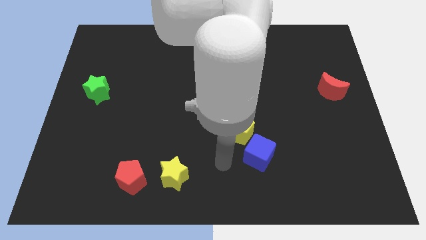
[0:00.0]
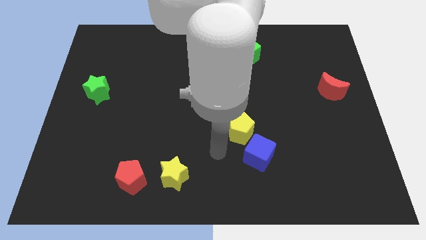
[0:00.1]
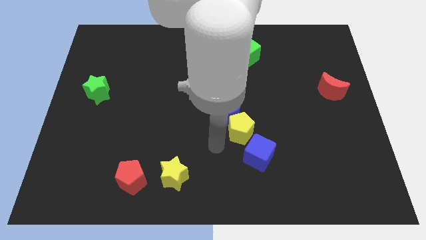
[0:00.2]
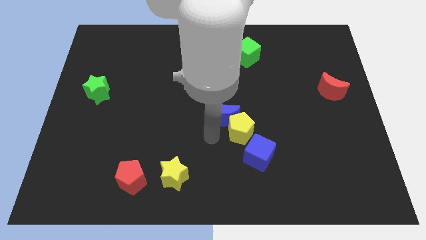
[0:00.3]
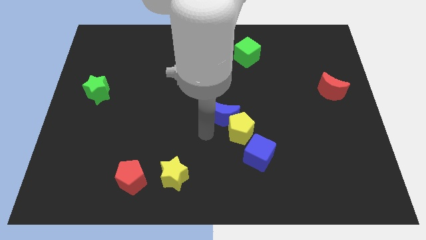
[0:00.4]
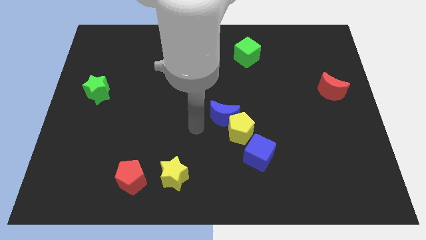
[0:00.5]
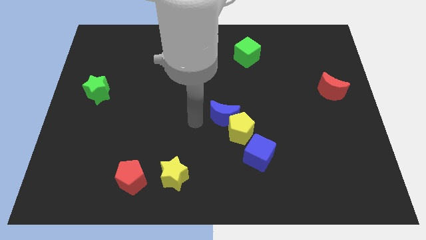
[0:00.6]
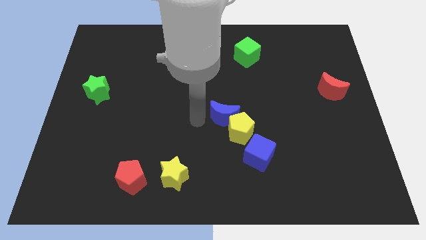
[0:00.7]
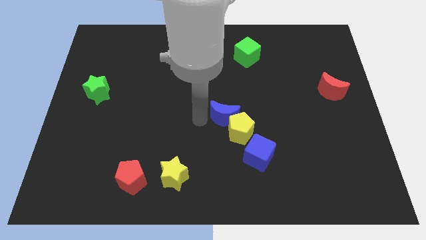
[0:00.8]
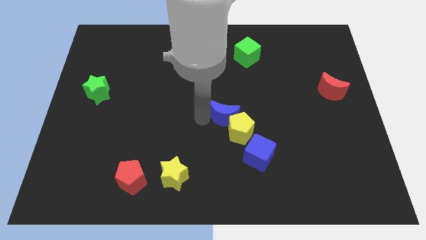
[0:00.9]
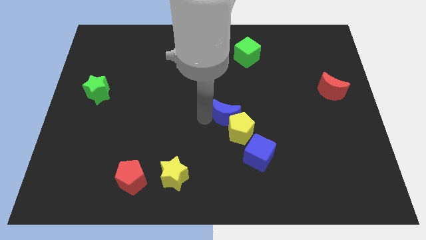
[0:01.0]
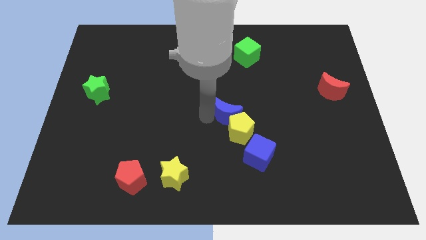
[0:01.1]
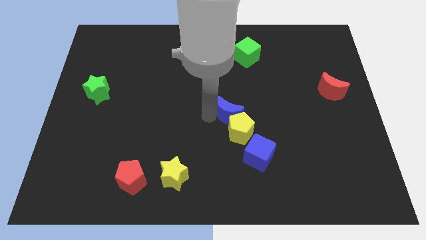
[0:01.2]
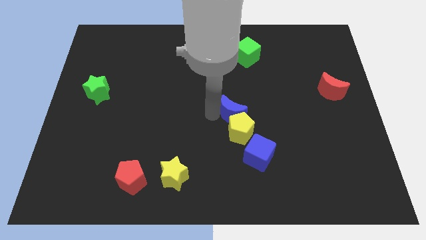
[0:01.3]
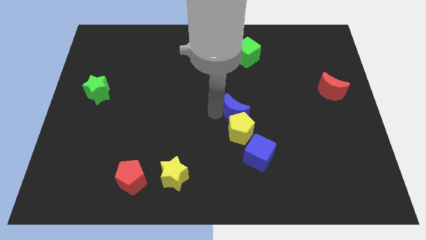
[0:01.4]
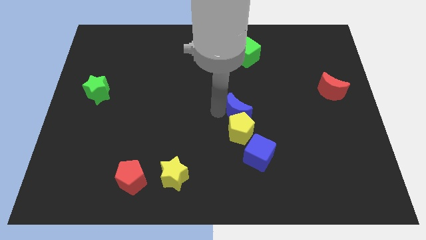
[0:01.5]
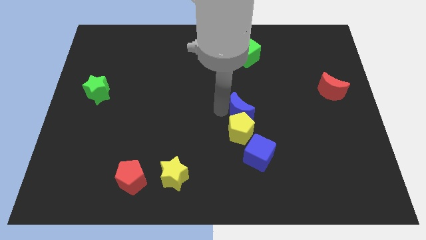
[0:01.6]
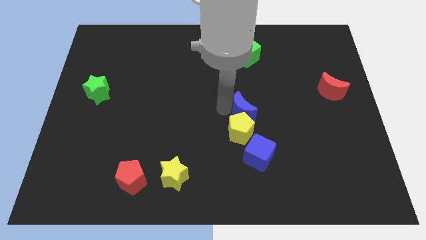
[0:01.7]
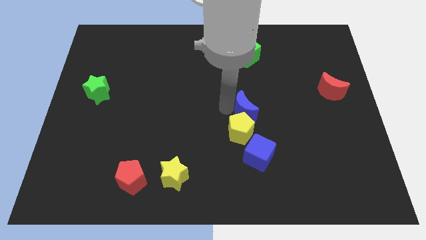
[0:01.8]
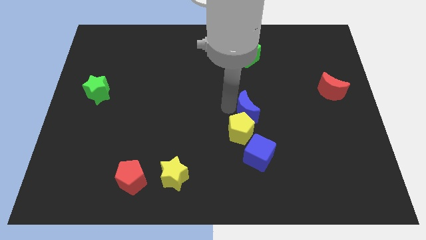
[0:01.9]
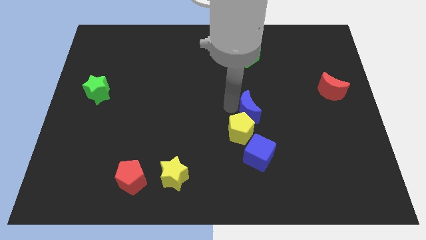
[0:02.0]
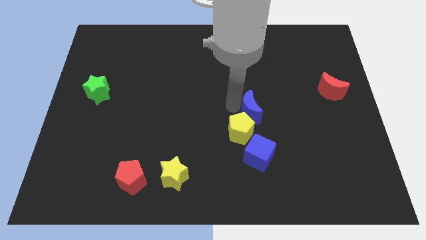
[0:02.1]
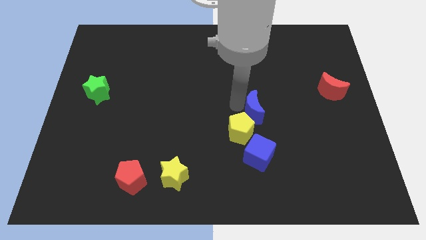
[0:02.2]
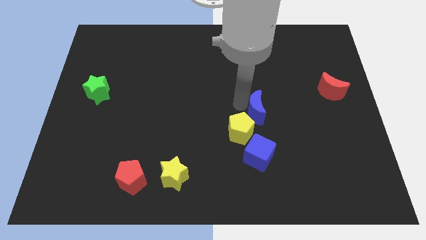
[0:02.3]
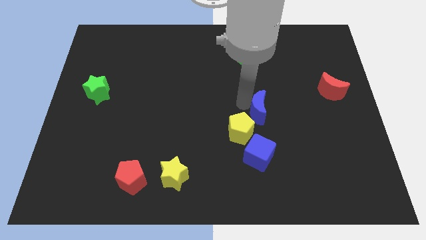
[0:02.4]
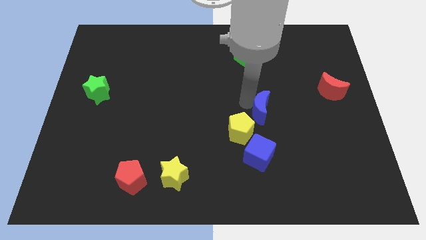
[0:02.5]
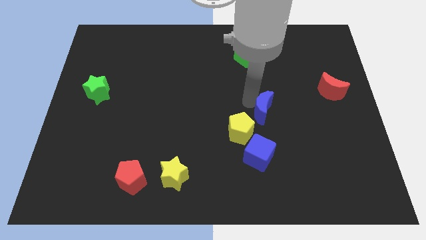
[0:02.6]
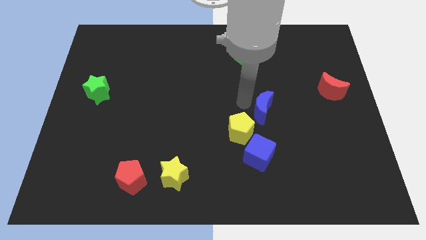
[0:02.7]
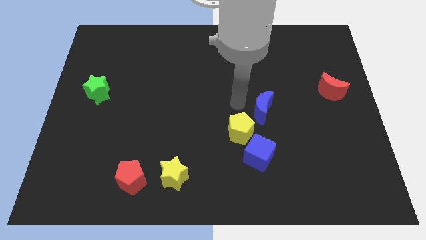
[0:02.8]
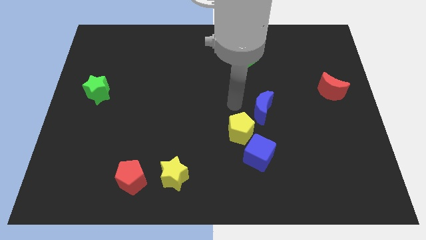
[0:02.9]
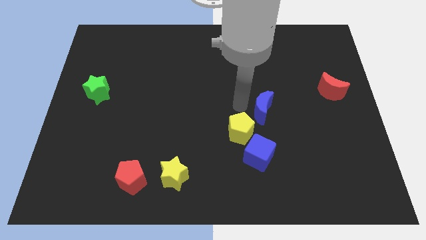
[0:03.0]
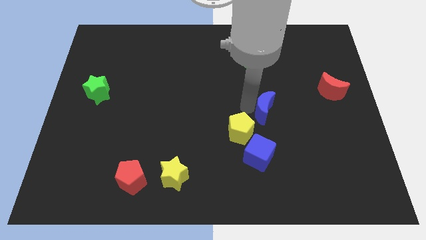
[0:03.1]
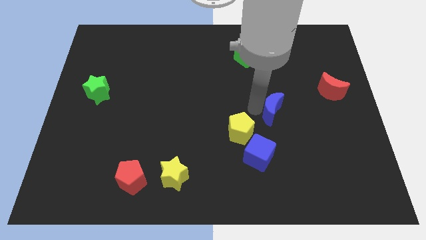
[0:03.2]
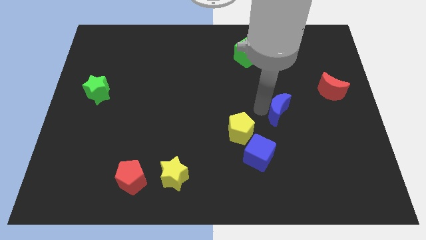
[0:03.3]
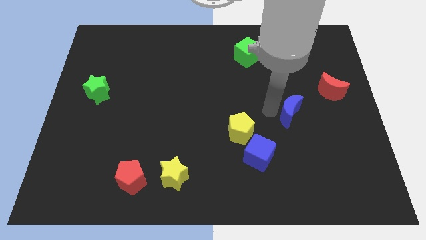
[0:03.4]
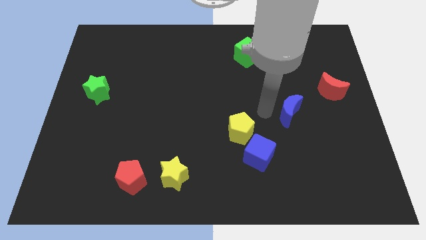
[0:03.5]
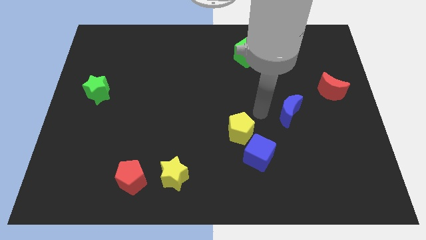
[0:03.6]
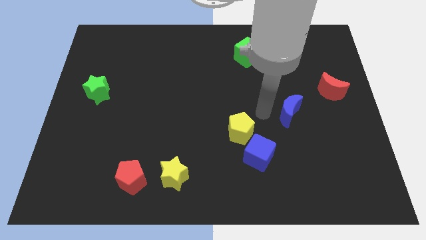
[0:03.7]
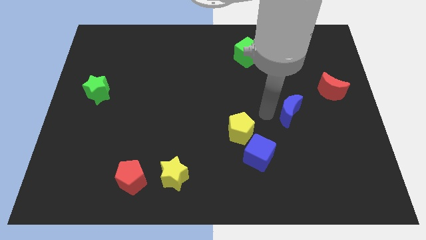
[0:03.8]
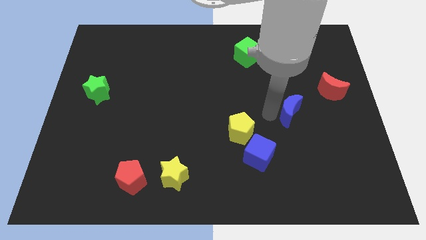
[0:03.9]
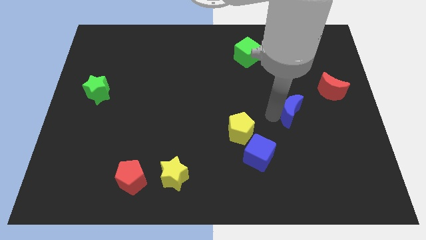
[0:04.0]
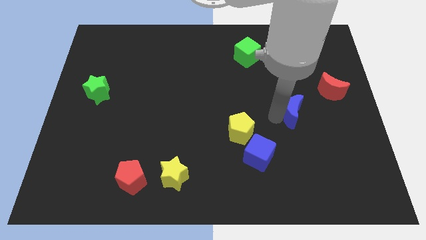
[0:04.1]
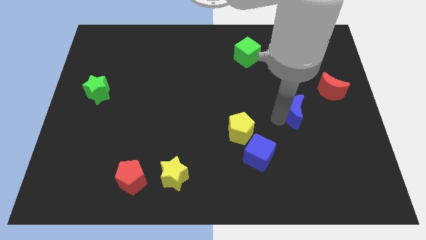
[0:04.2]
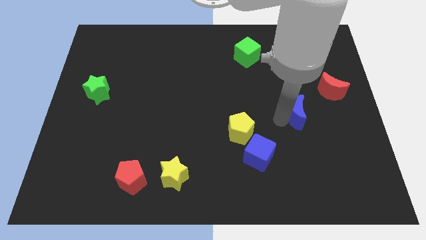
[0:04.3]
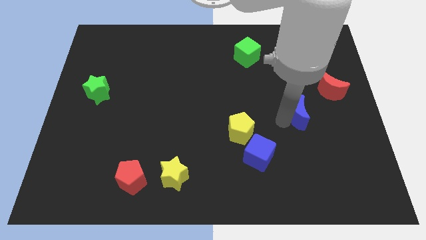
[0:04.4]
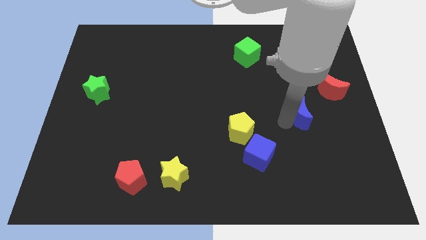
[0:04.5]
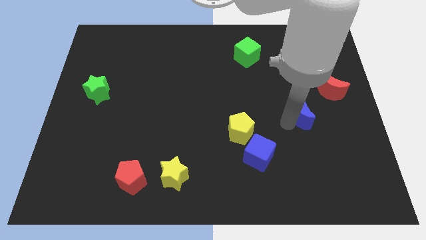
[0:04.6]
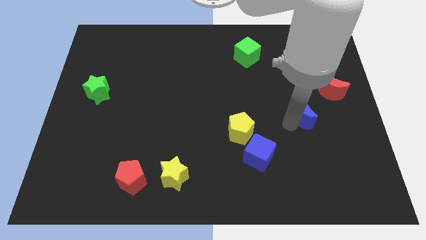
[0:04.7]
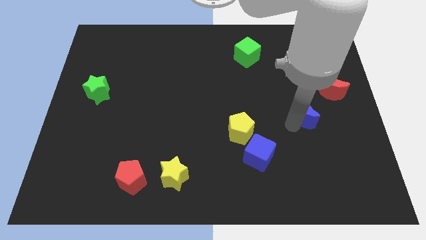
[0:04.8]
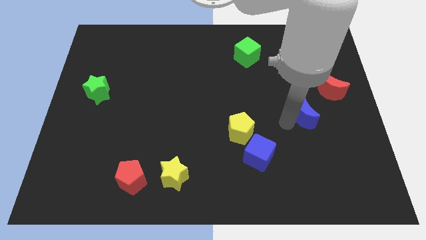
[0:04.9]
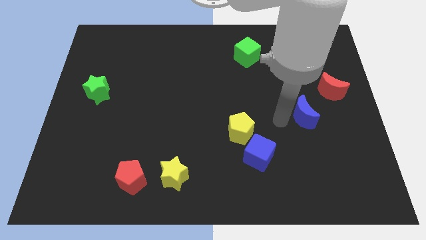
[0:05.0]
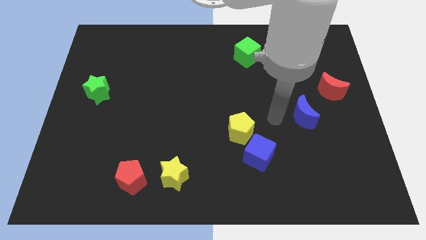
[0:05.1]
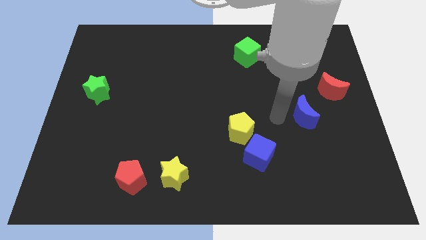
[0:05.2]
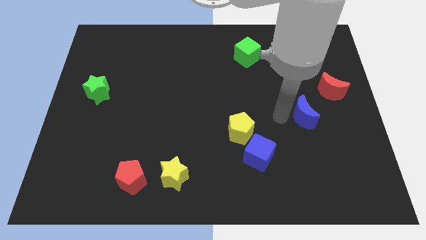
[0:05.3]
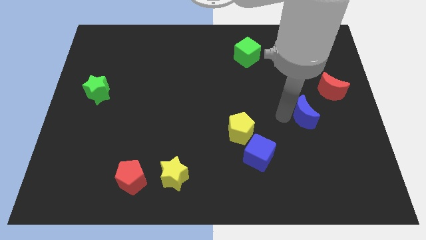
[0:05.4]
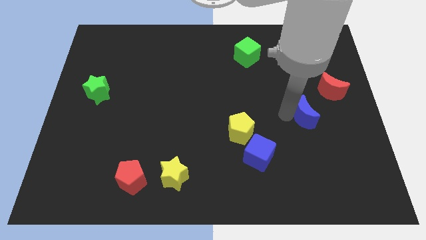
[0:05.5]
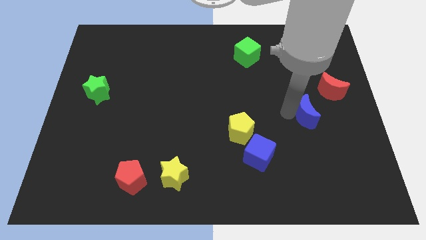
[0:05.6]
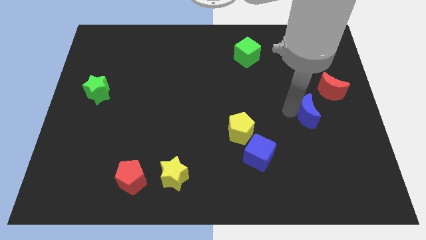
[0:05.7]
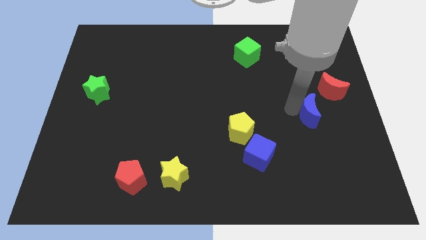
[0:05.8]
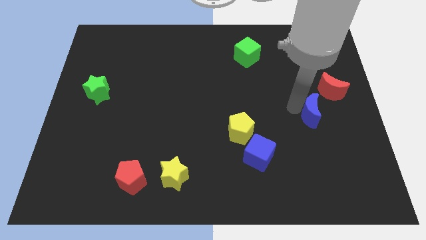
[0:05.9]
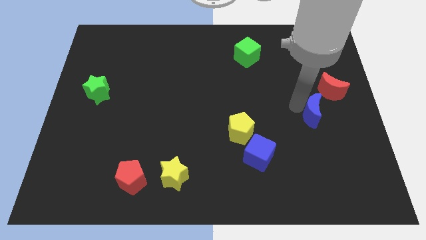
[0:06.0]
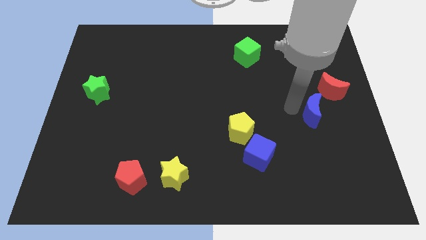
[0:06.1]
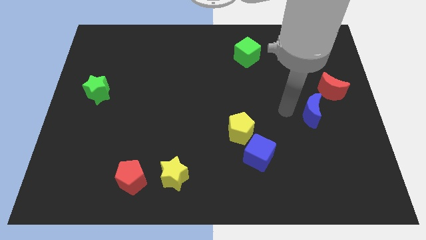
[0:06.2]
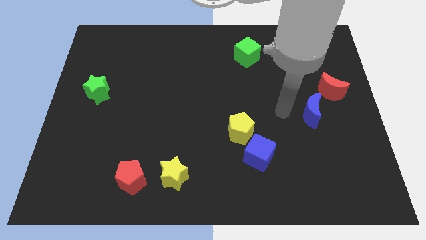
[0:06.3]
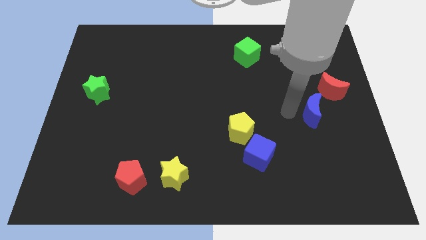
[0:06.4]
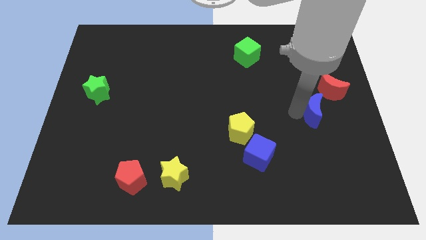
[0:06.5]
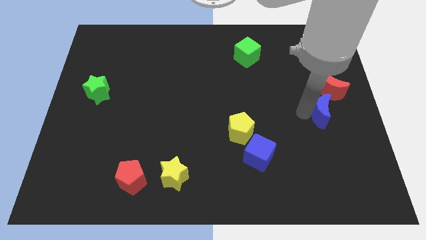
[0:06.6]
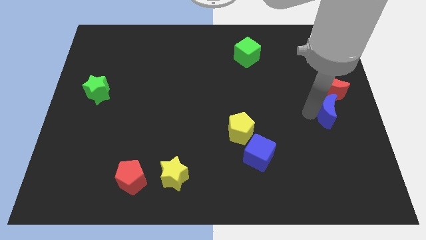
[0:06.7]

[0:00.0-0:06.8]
slide the blue moon to the right side

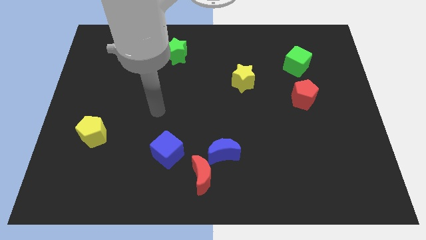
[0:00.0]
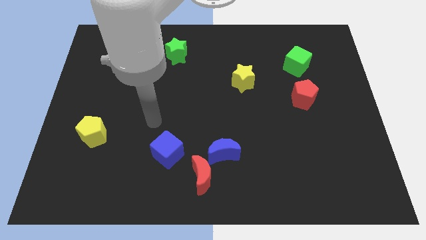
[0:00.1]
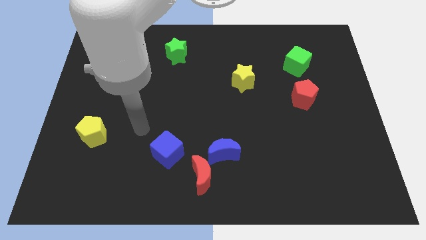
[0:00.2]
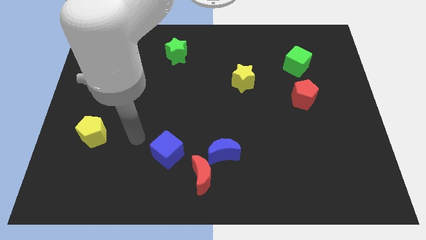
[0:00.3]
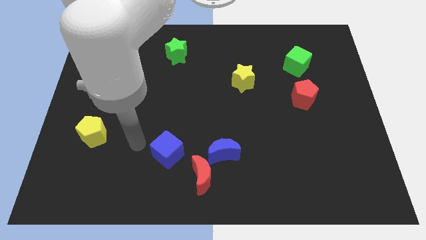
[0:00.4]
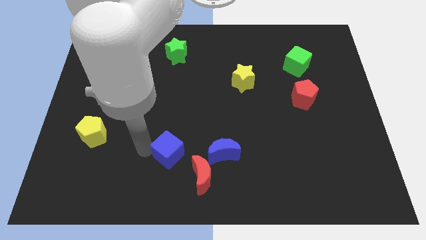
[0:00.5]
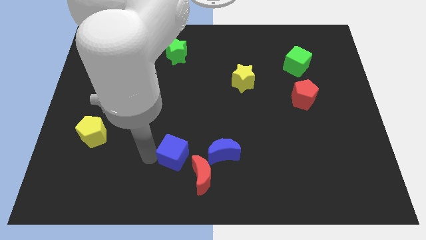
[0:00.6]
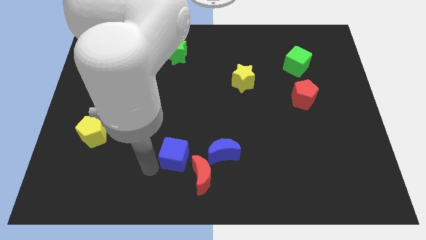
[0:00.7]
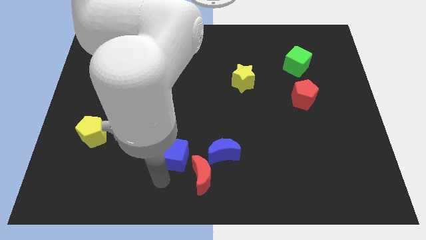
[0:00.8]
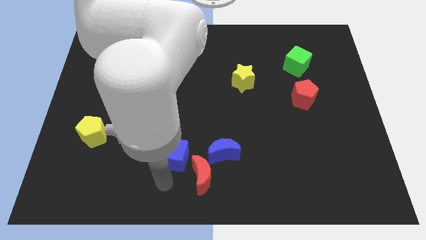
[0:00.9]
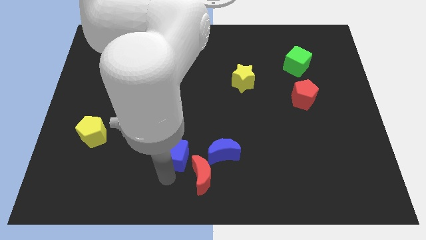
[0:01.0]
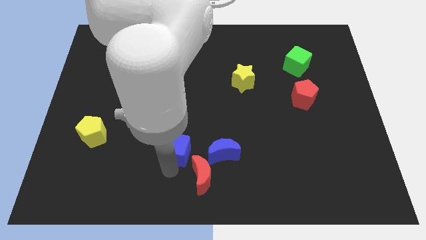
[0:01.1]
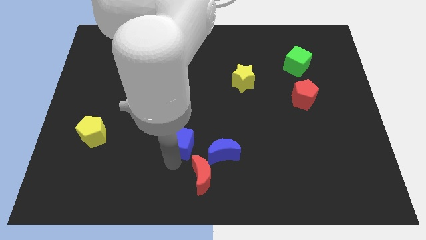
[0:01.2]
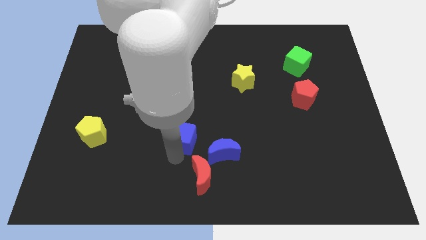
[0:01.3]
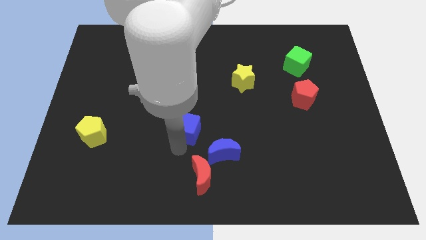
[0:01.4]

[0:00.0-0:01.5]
move the blue cube to the middle of the board
